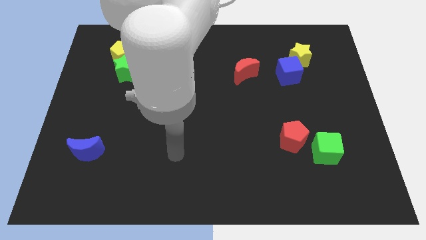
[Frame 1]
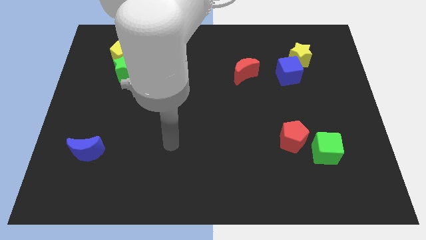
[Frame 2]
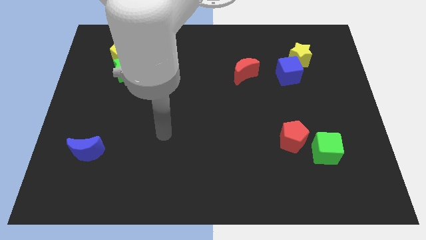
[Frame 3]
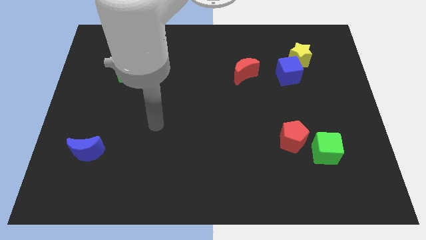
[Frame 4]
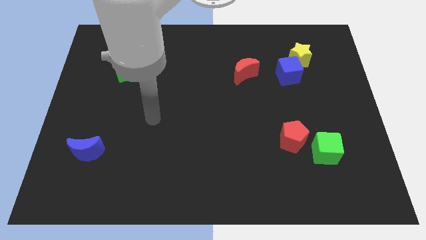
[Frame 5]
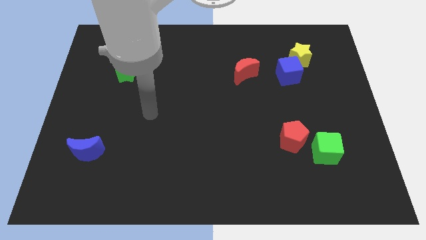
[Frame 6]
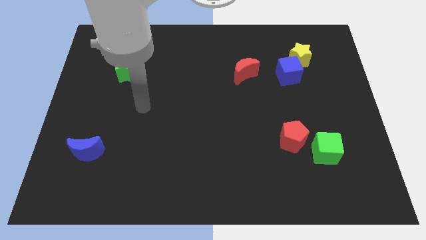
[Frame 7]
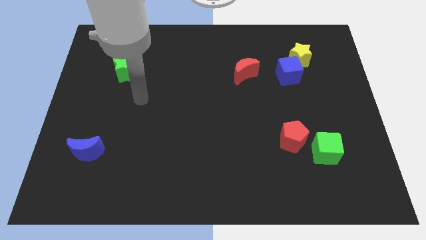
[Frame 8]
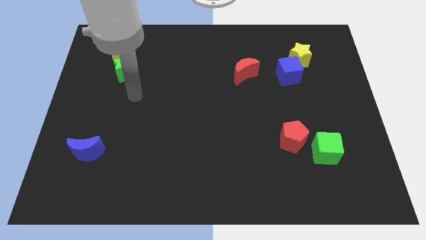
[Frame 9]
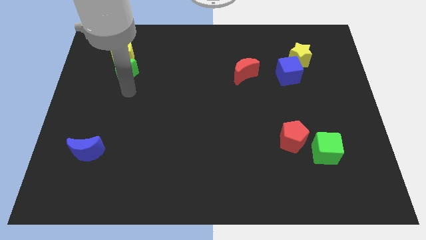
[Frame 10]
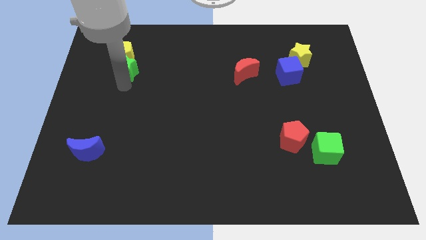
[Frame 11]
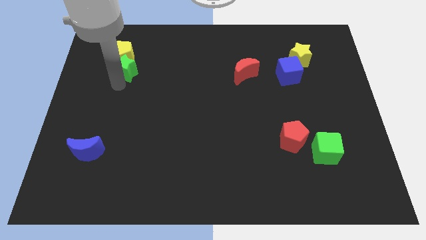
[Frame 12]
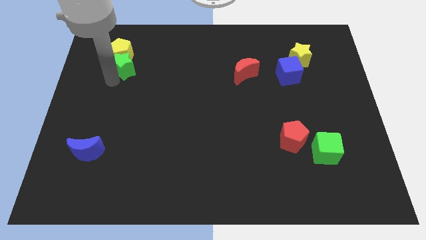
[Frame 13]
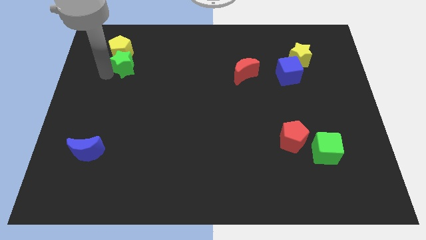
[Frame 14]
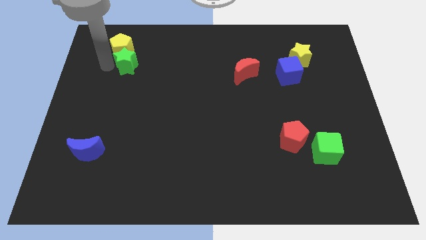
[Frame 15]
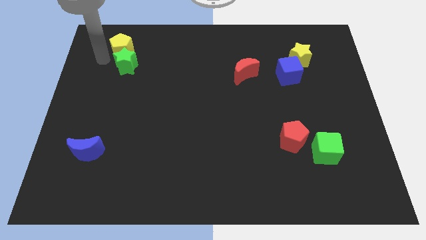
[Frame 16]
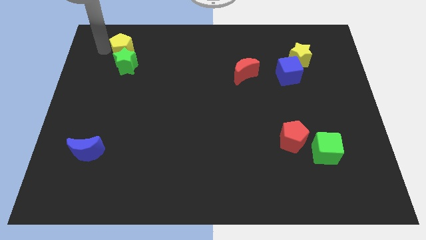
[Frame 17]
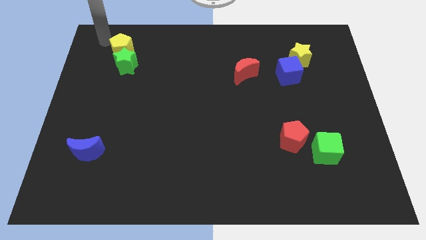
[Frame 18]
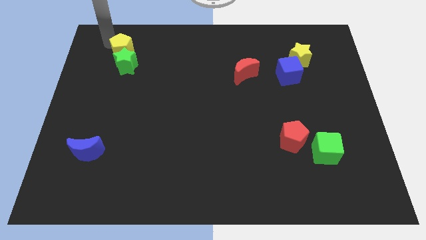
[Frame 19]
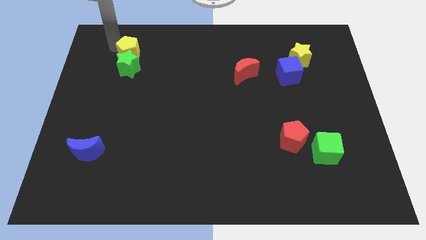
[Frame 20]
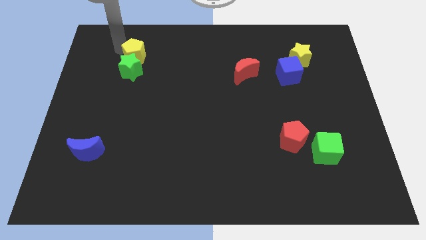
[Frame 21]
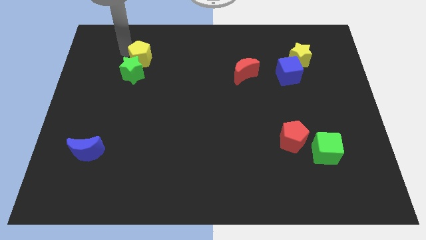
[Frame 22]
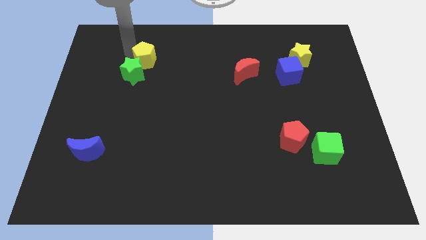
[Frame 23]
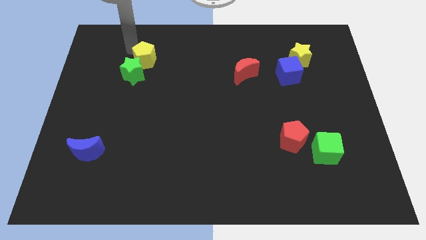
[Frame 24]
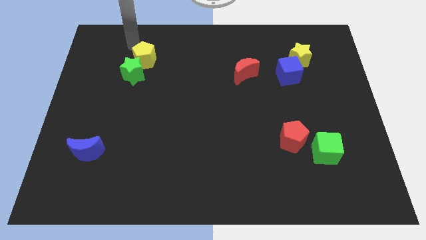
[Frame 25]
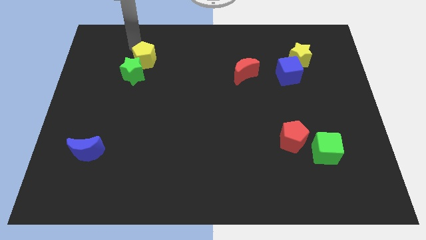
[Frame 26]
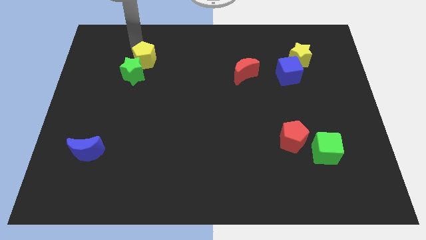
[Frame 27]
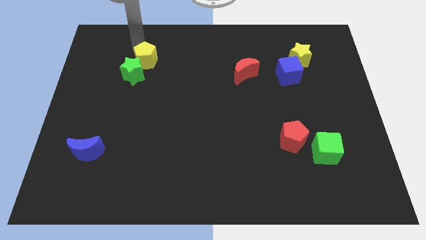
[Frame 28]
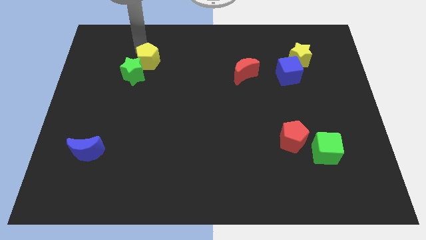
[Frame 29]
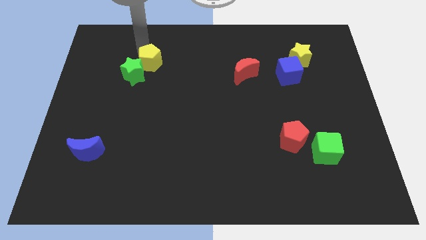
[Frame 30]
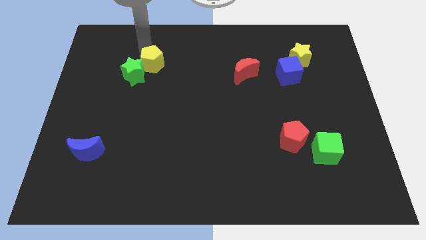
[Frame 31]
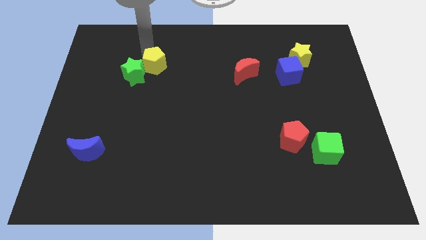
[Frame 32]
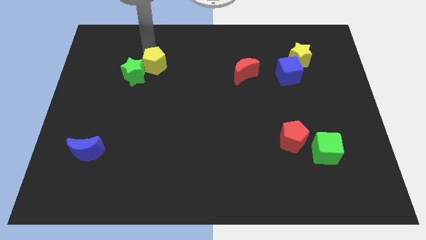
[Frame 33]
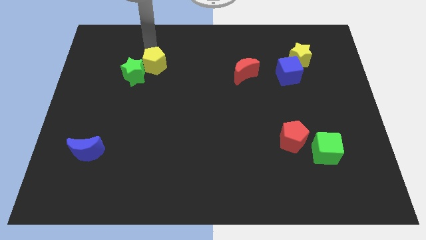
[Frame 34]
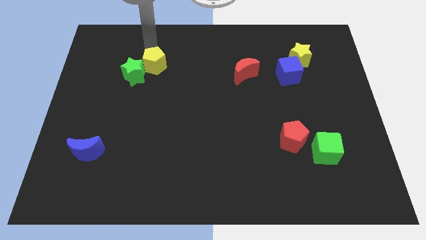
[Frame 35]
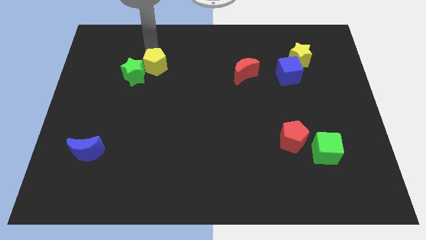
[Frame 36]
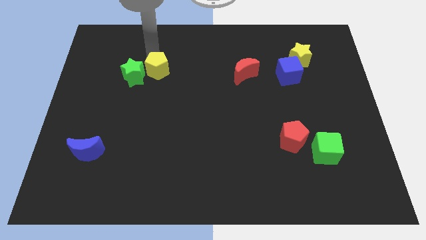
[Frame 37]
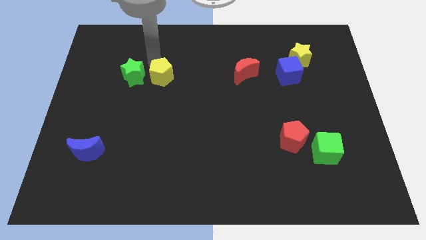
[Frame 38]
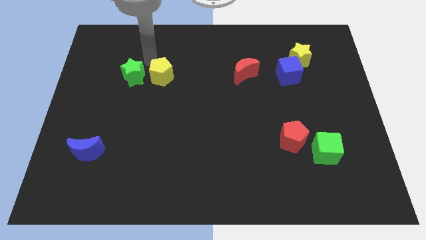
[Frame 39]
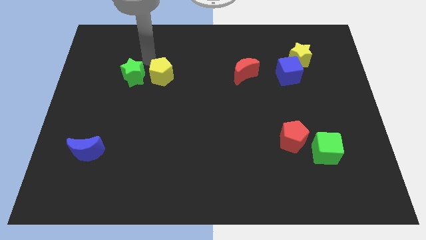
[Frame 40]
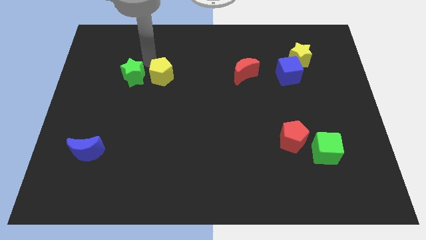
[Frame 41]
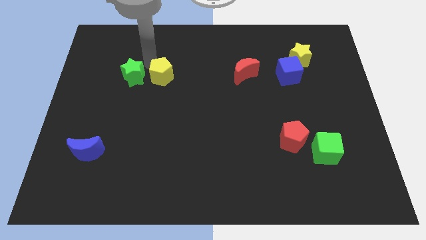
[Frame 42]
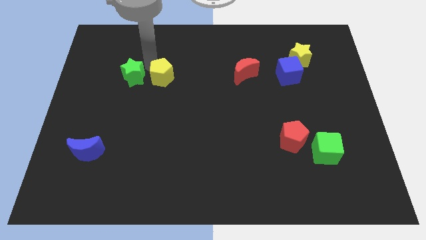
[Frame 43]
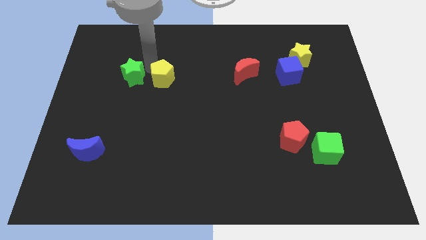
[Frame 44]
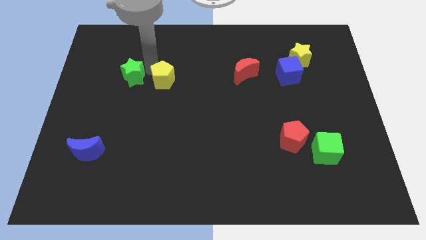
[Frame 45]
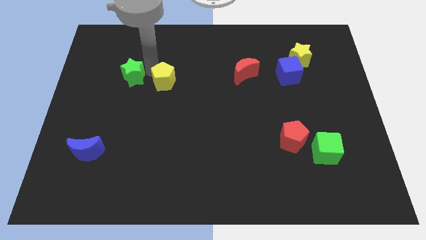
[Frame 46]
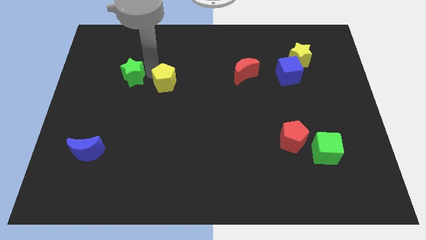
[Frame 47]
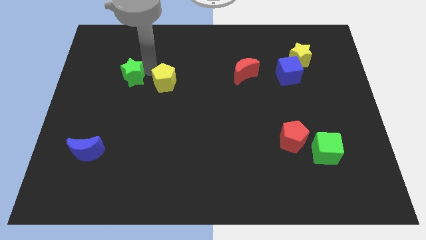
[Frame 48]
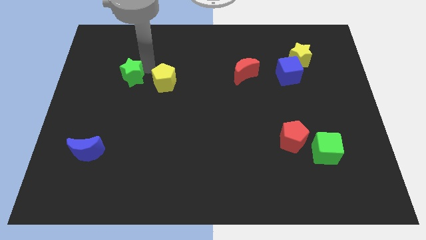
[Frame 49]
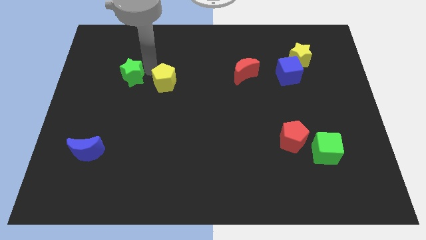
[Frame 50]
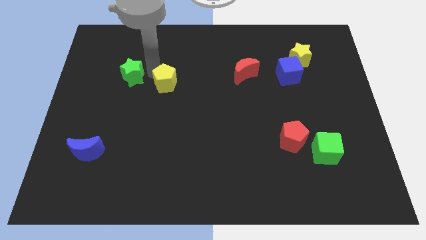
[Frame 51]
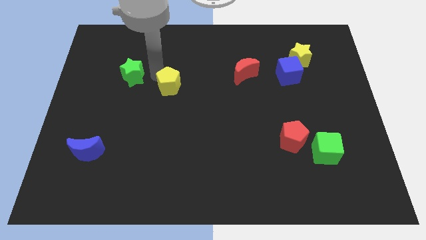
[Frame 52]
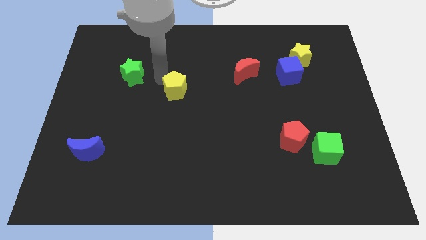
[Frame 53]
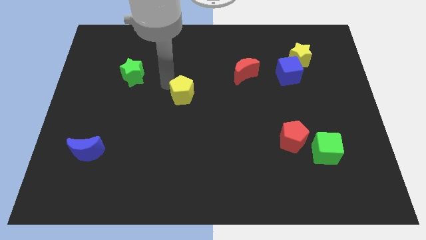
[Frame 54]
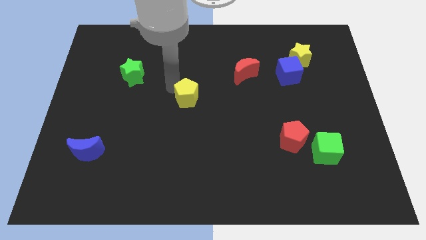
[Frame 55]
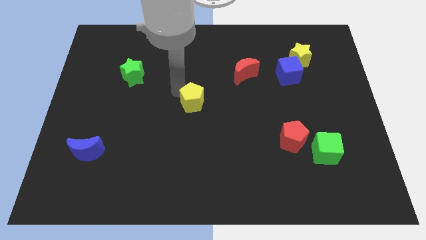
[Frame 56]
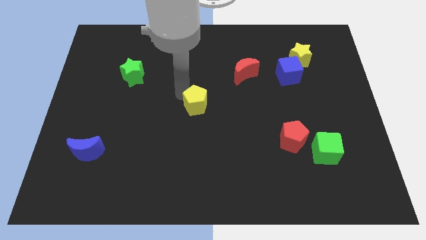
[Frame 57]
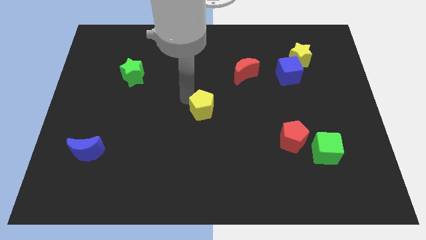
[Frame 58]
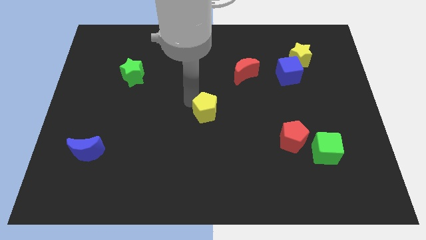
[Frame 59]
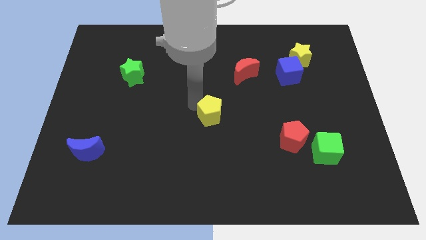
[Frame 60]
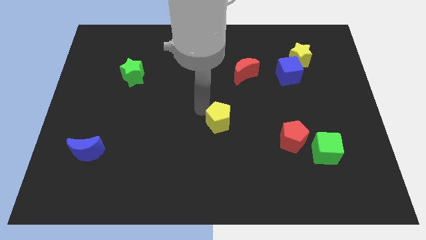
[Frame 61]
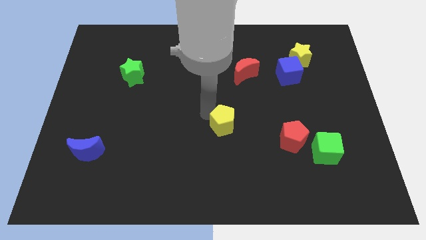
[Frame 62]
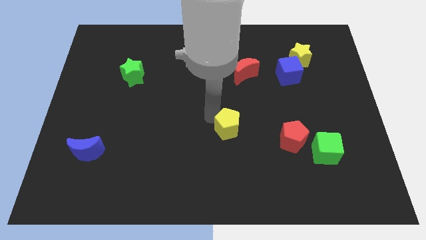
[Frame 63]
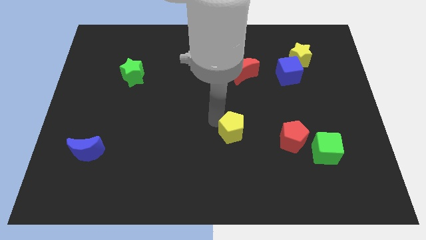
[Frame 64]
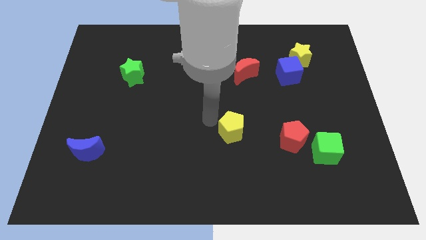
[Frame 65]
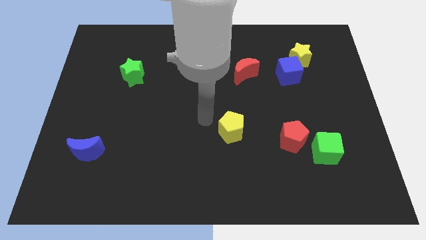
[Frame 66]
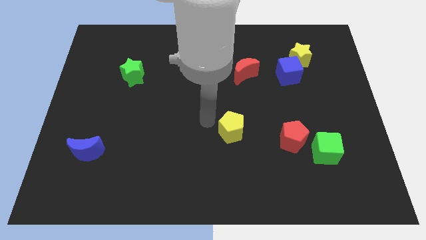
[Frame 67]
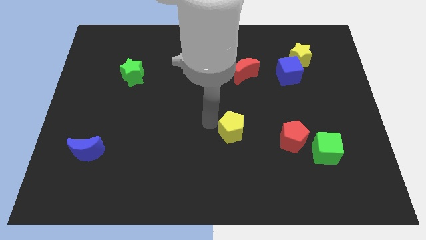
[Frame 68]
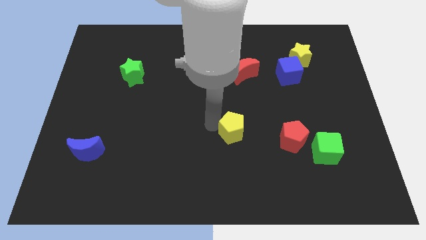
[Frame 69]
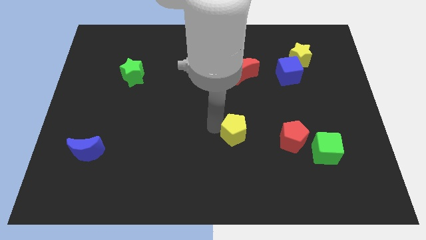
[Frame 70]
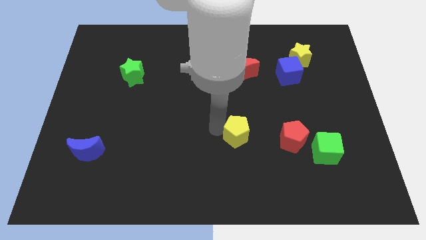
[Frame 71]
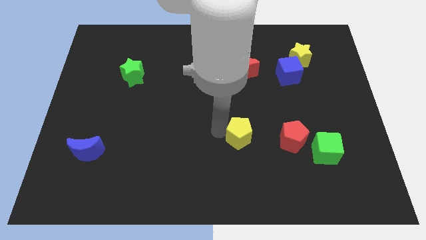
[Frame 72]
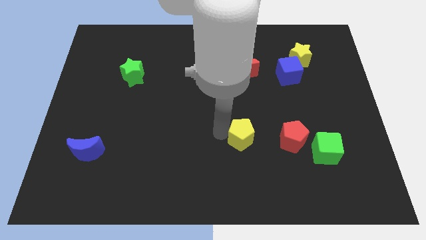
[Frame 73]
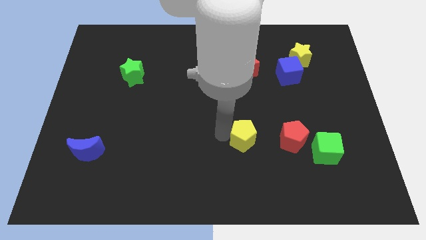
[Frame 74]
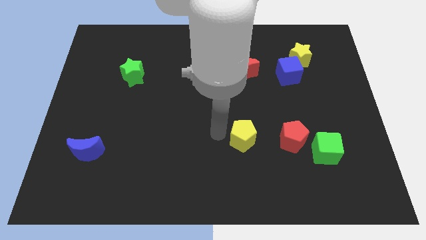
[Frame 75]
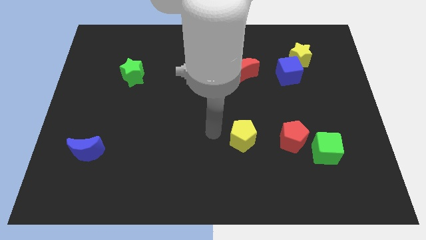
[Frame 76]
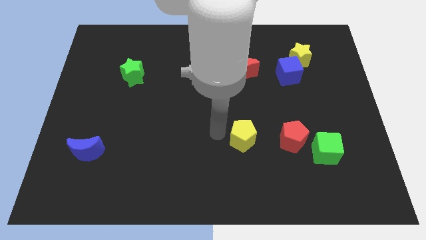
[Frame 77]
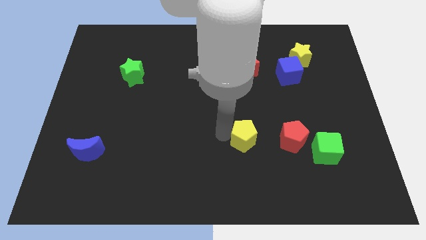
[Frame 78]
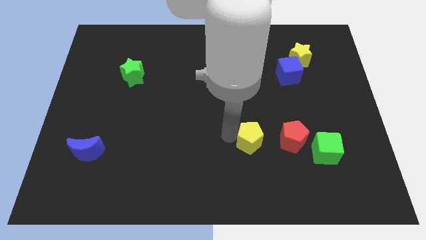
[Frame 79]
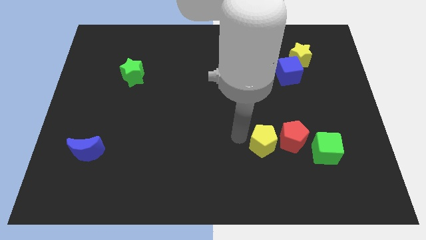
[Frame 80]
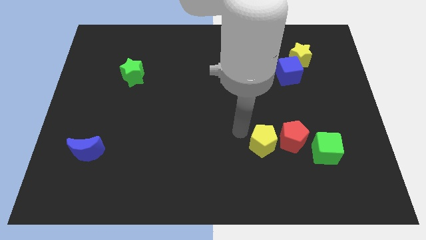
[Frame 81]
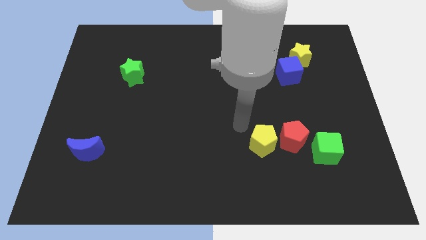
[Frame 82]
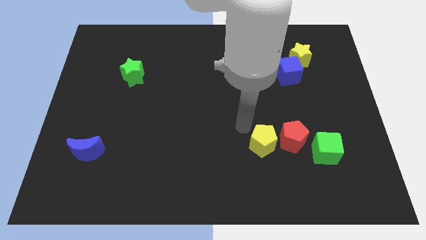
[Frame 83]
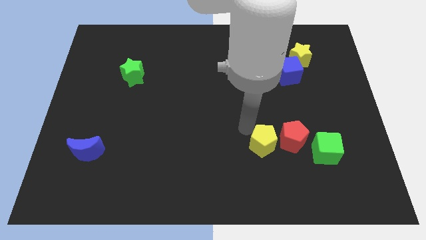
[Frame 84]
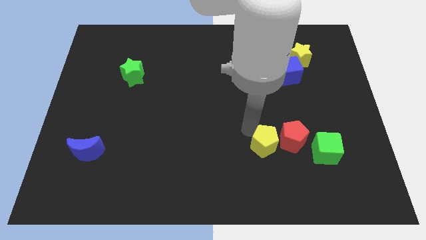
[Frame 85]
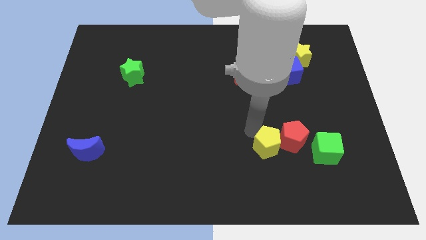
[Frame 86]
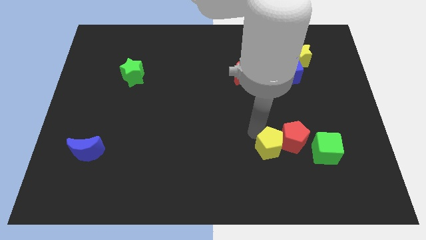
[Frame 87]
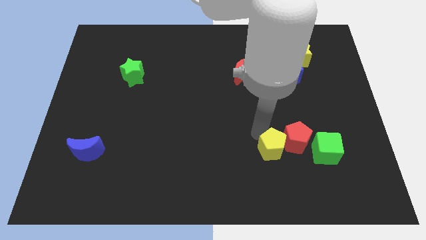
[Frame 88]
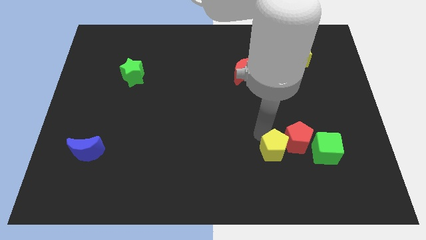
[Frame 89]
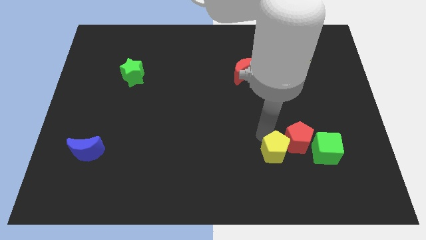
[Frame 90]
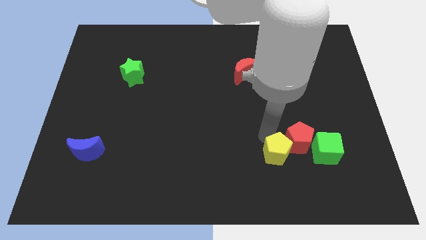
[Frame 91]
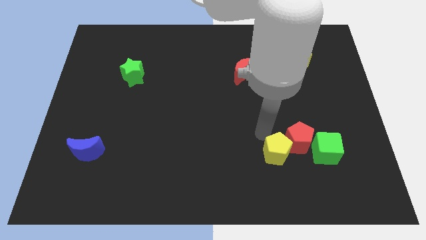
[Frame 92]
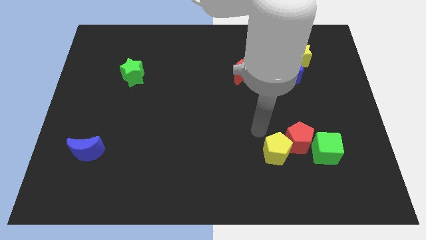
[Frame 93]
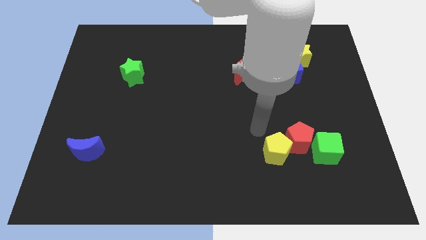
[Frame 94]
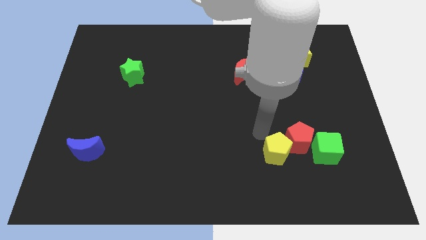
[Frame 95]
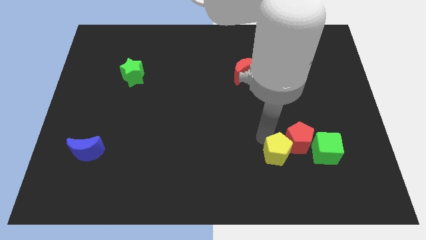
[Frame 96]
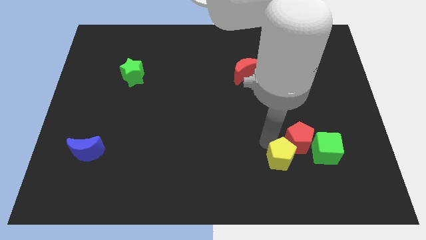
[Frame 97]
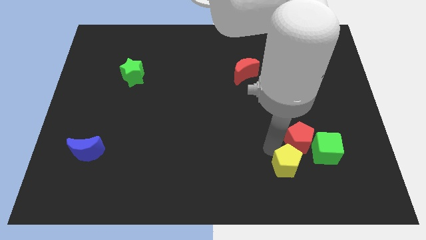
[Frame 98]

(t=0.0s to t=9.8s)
put the yellow pentagon diagonally down and to the left of the green cube
